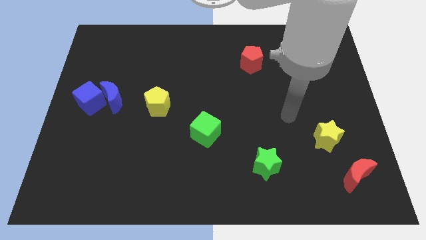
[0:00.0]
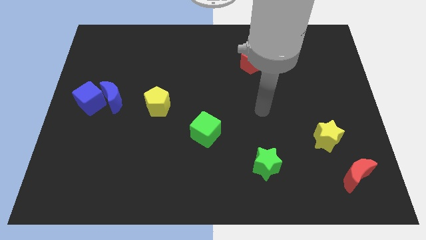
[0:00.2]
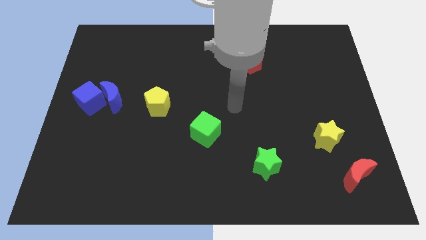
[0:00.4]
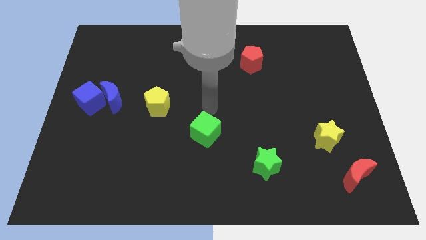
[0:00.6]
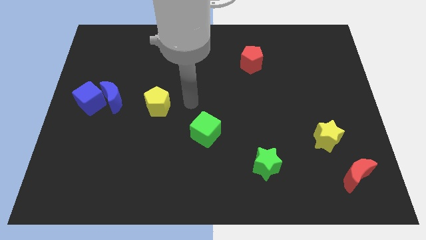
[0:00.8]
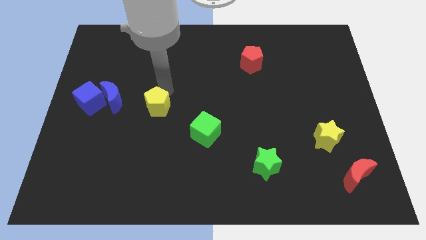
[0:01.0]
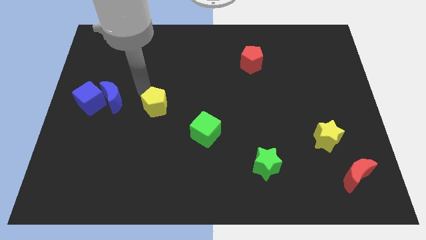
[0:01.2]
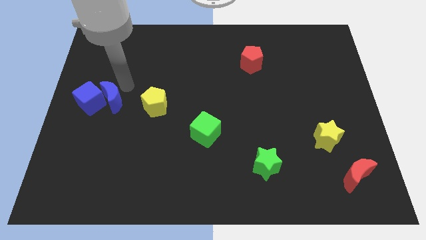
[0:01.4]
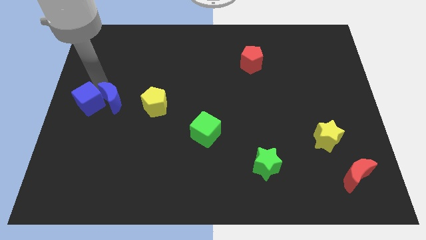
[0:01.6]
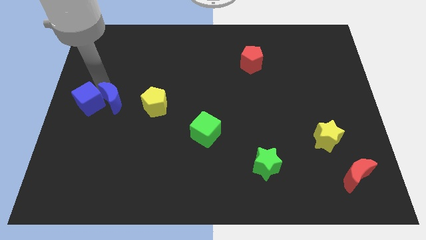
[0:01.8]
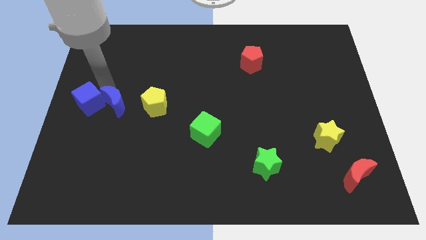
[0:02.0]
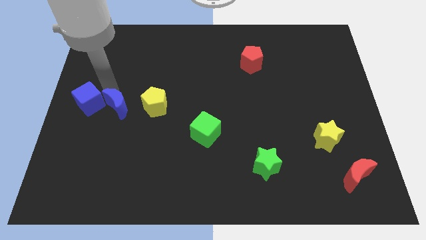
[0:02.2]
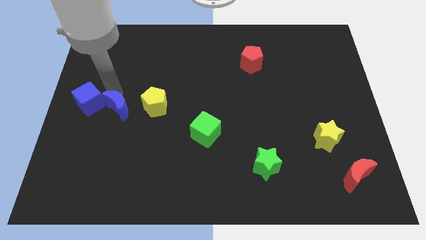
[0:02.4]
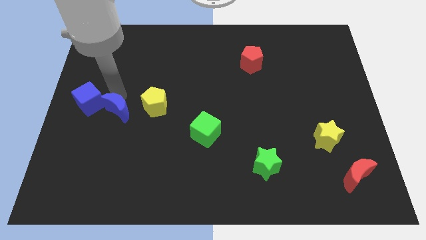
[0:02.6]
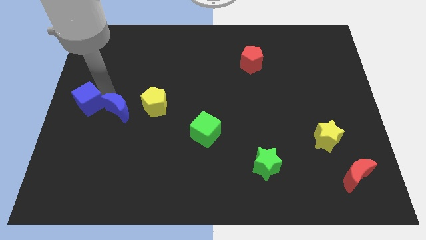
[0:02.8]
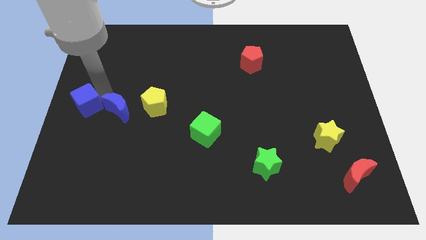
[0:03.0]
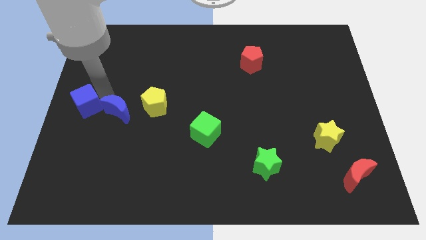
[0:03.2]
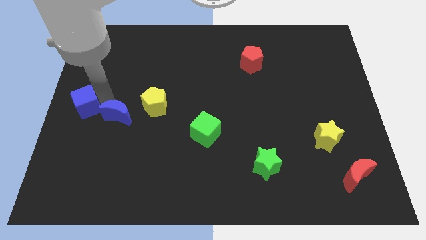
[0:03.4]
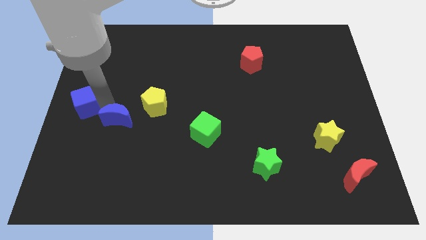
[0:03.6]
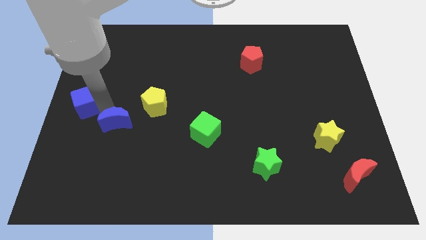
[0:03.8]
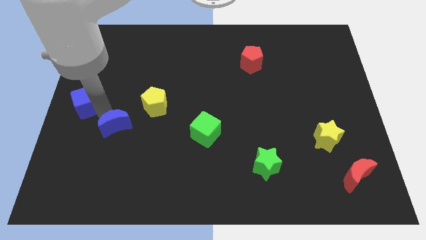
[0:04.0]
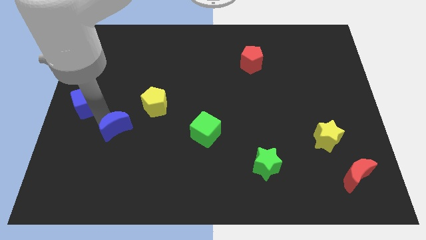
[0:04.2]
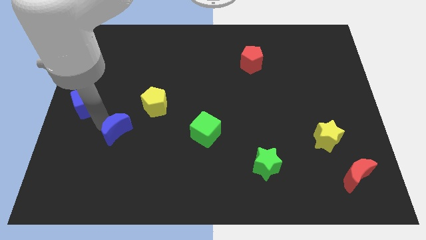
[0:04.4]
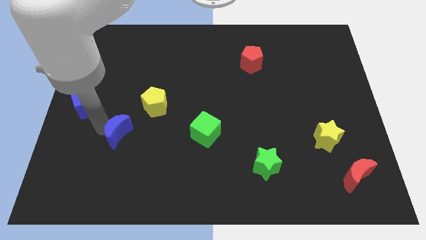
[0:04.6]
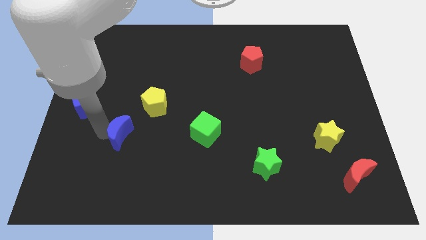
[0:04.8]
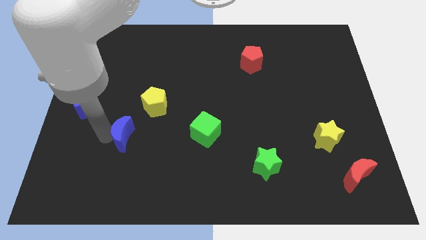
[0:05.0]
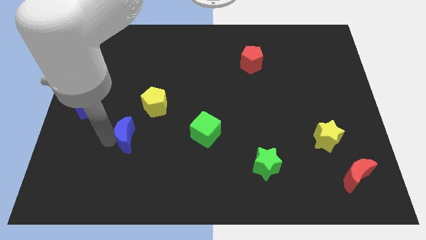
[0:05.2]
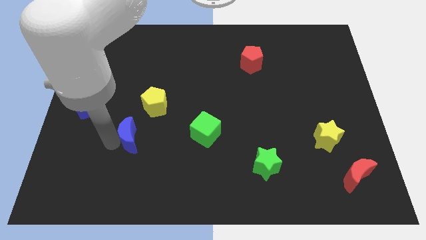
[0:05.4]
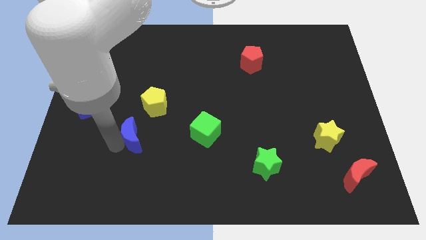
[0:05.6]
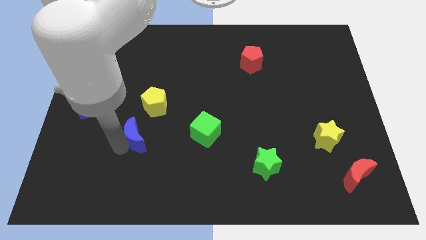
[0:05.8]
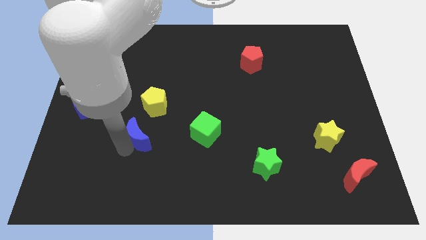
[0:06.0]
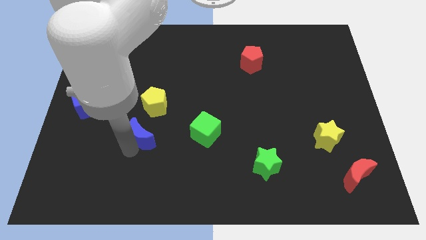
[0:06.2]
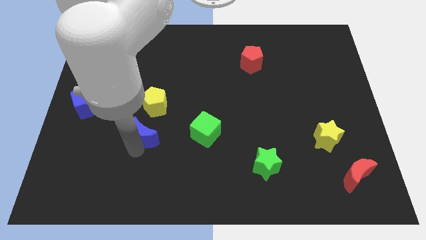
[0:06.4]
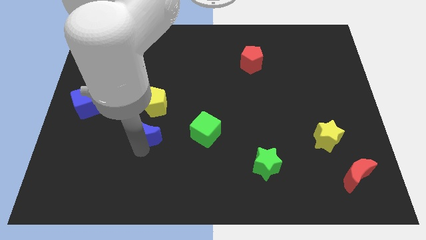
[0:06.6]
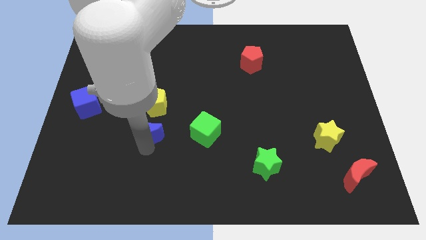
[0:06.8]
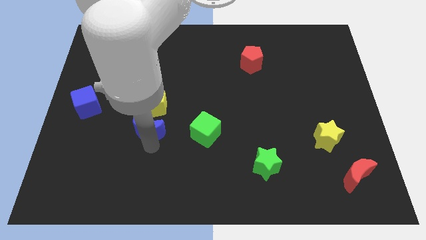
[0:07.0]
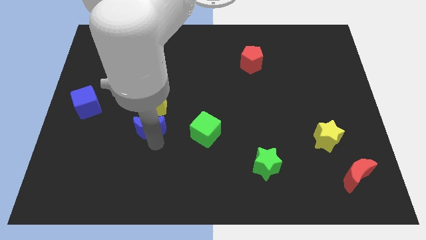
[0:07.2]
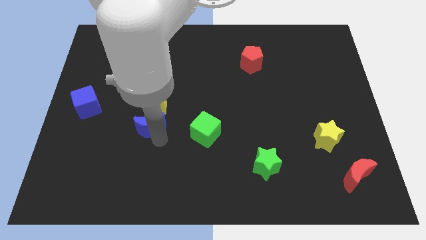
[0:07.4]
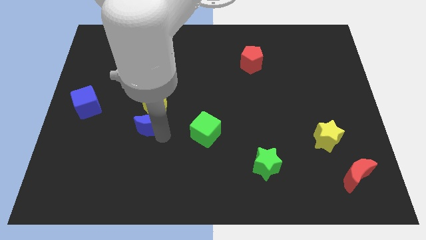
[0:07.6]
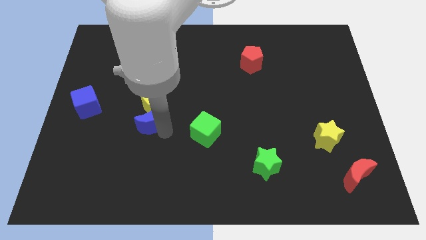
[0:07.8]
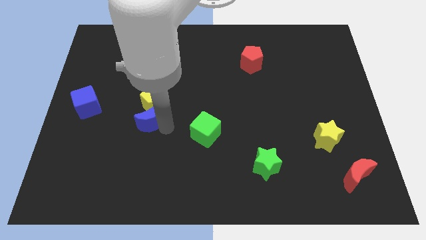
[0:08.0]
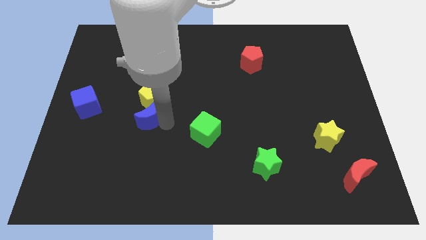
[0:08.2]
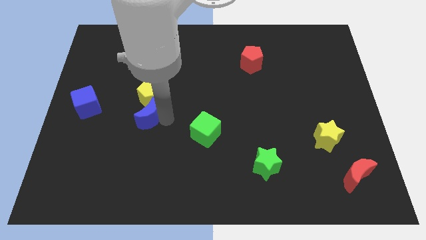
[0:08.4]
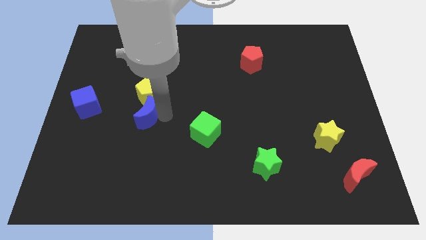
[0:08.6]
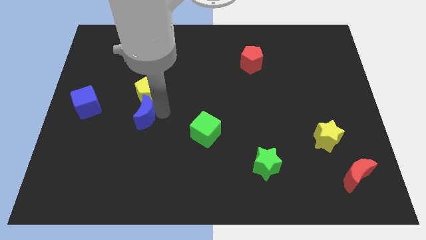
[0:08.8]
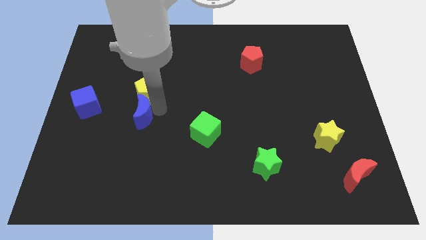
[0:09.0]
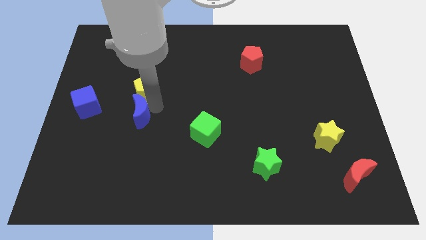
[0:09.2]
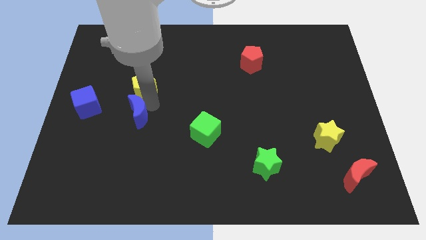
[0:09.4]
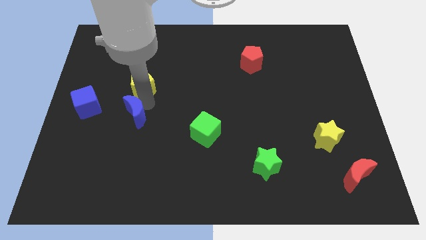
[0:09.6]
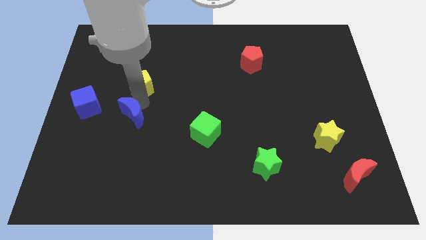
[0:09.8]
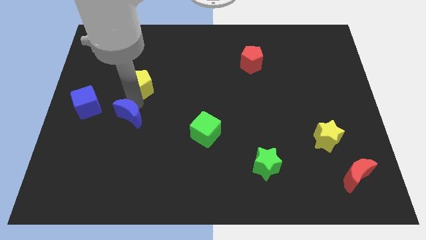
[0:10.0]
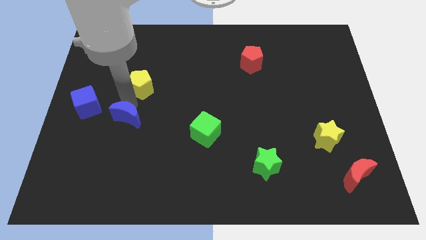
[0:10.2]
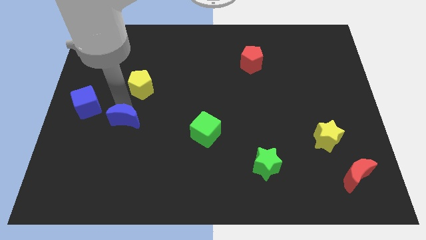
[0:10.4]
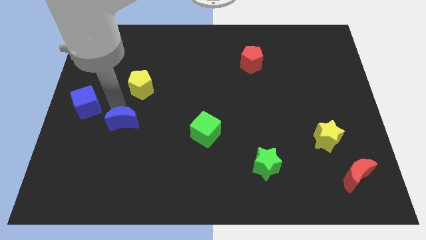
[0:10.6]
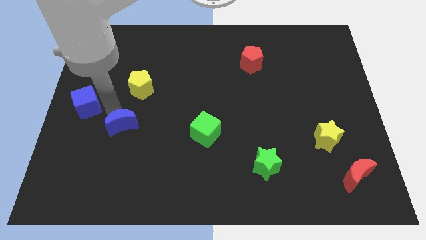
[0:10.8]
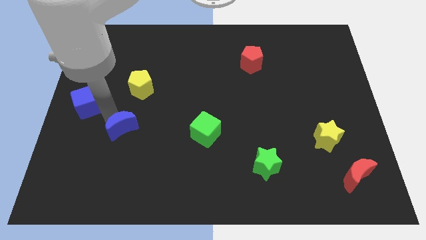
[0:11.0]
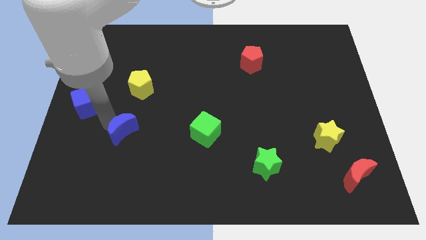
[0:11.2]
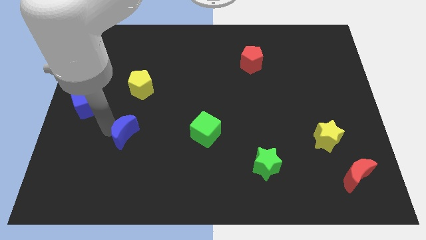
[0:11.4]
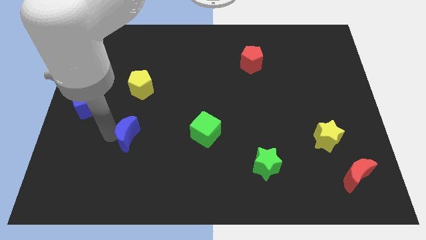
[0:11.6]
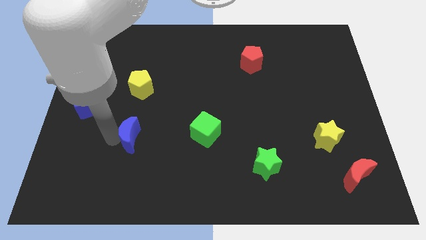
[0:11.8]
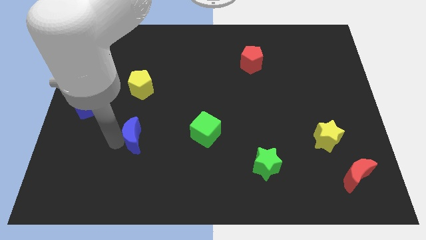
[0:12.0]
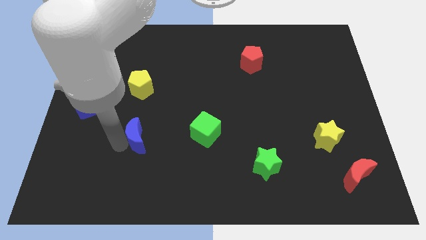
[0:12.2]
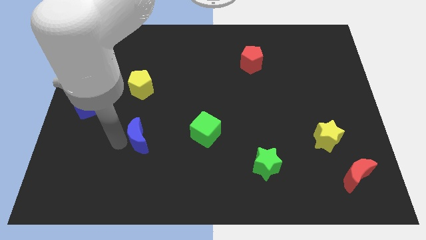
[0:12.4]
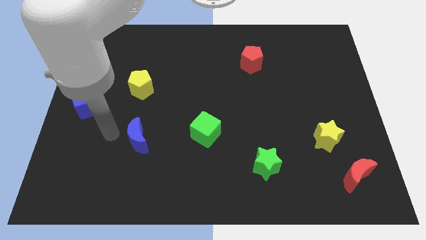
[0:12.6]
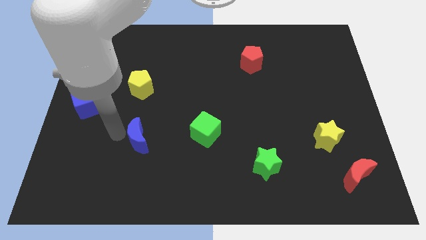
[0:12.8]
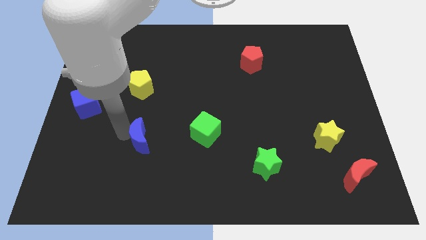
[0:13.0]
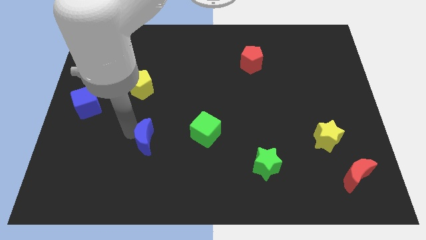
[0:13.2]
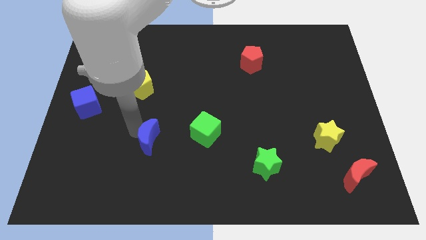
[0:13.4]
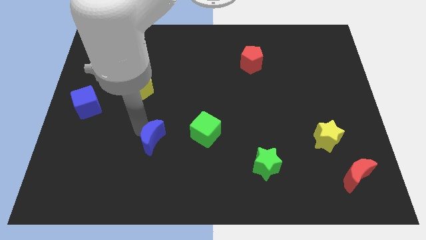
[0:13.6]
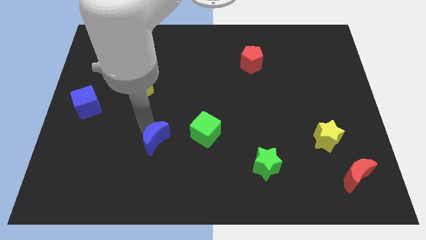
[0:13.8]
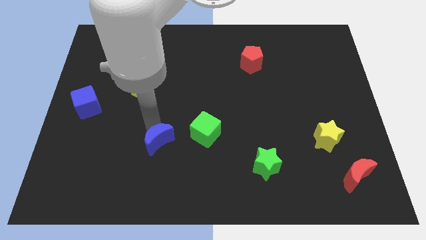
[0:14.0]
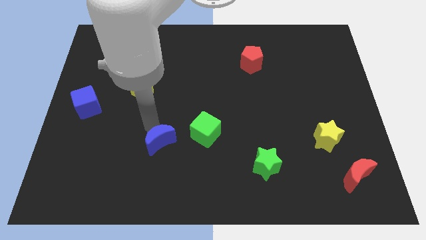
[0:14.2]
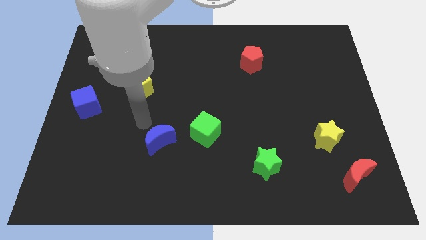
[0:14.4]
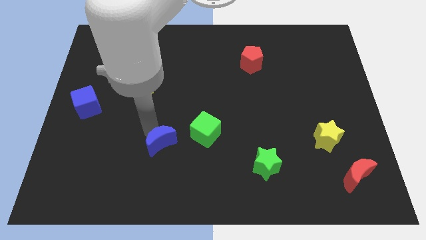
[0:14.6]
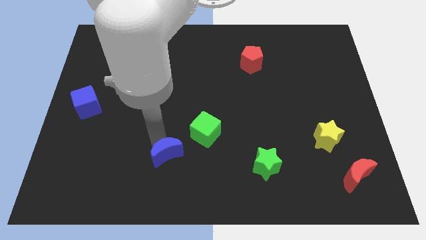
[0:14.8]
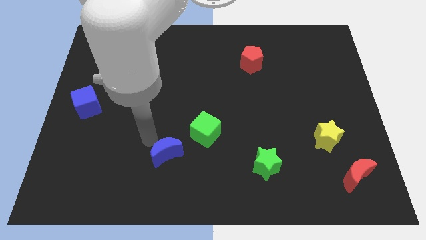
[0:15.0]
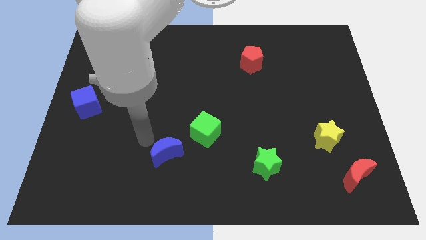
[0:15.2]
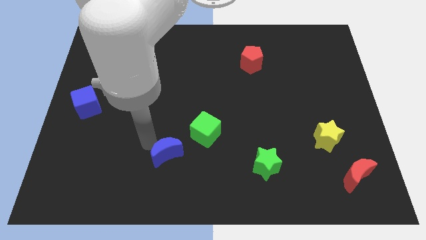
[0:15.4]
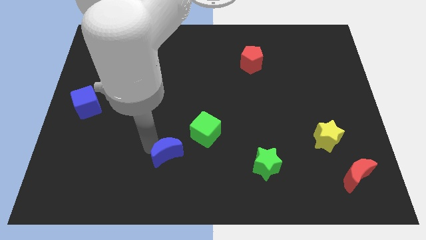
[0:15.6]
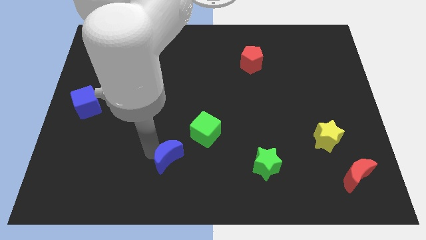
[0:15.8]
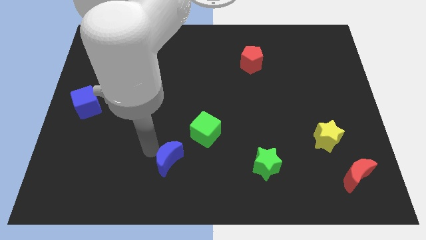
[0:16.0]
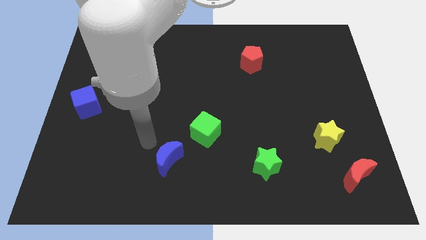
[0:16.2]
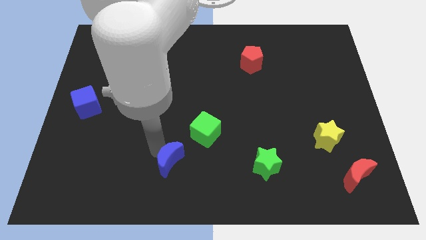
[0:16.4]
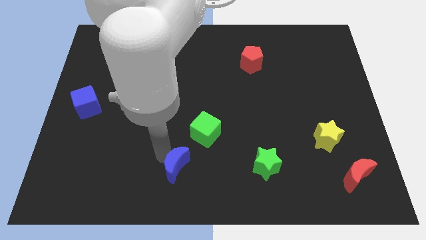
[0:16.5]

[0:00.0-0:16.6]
put the blue moon to the bottom
